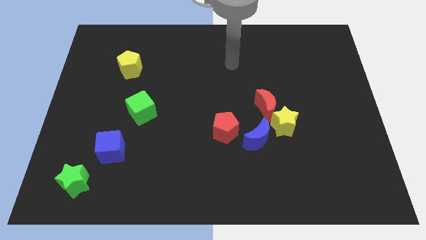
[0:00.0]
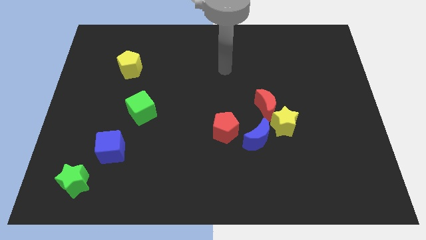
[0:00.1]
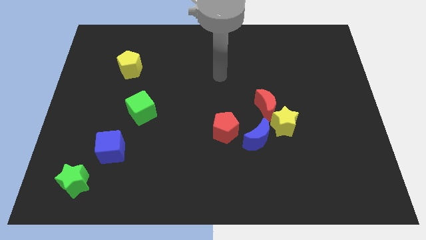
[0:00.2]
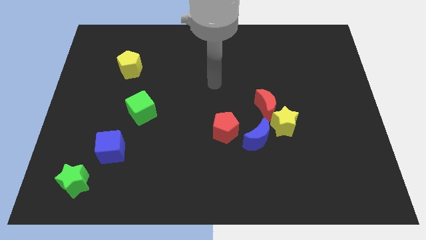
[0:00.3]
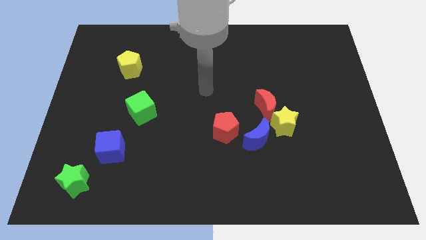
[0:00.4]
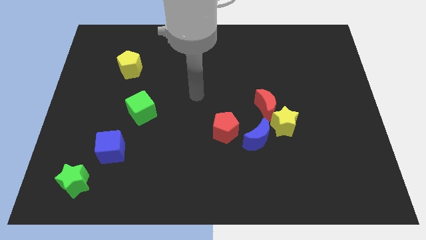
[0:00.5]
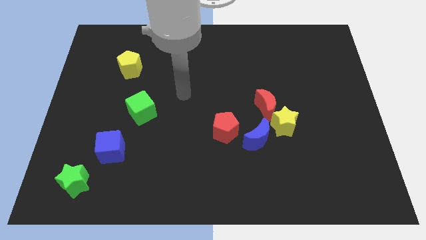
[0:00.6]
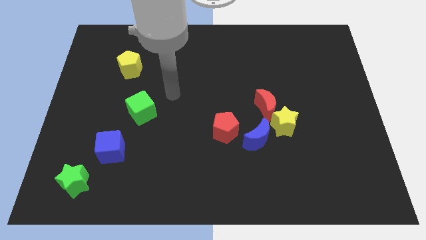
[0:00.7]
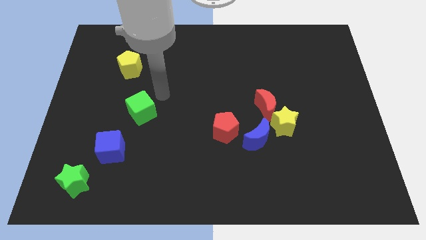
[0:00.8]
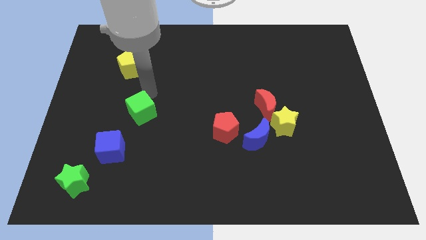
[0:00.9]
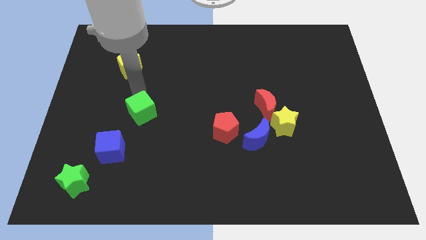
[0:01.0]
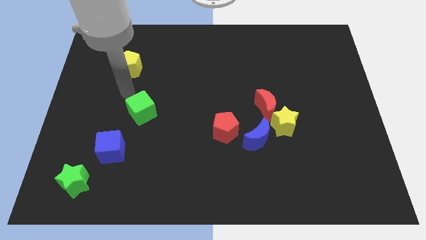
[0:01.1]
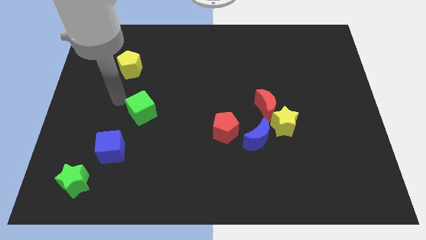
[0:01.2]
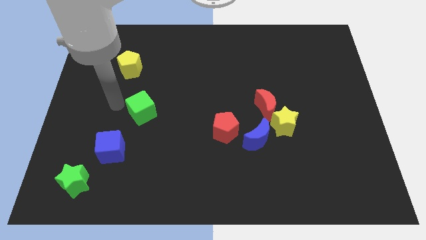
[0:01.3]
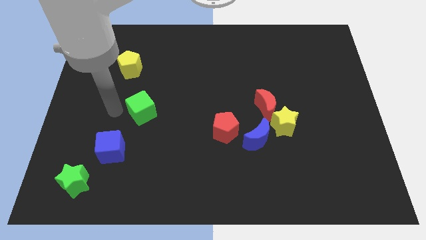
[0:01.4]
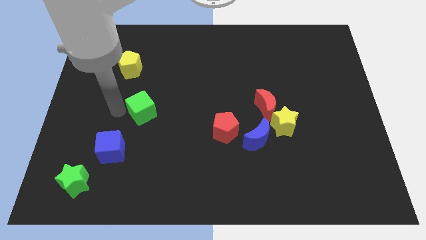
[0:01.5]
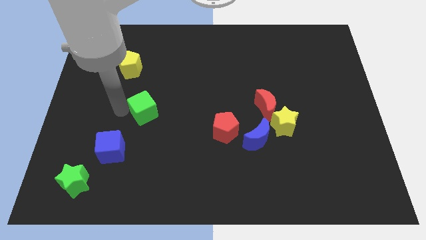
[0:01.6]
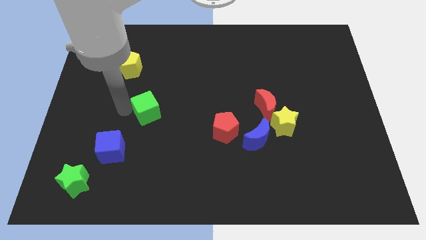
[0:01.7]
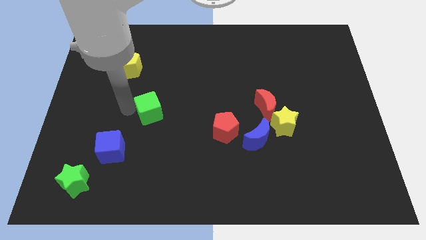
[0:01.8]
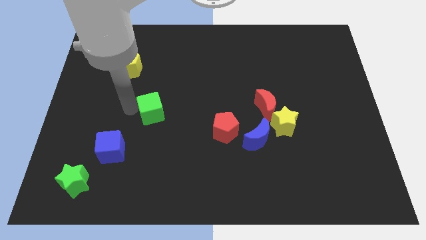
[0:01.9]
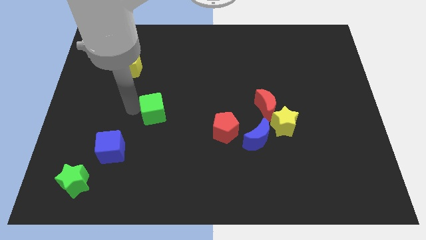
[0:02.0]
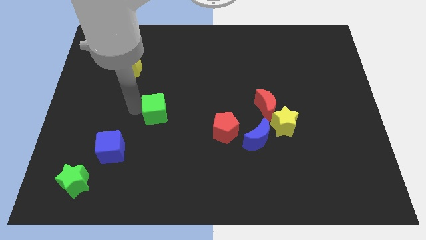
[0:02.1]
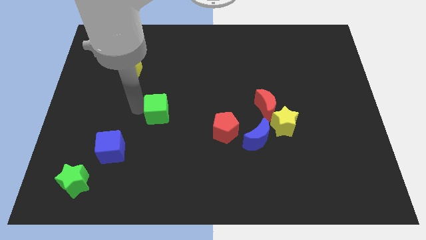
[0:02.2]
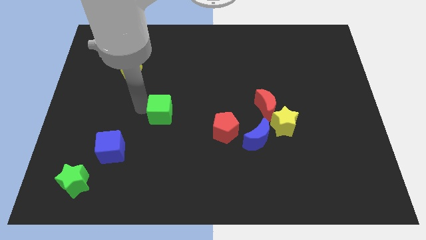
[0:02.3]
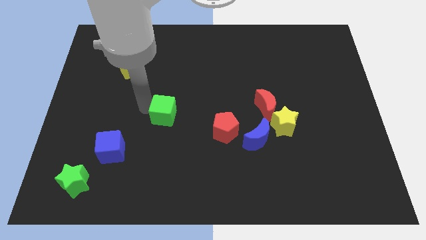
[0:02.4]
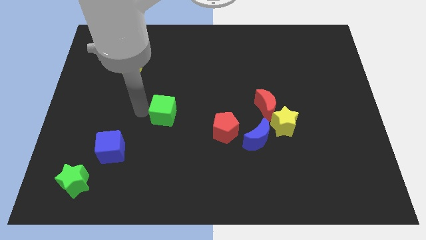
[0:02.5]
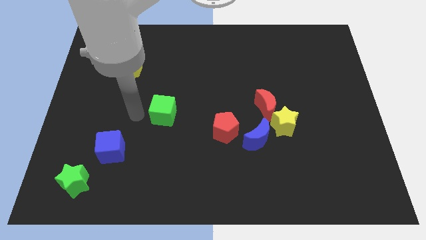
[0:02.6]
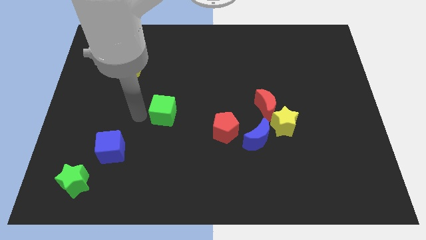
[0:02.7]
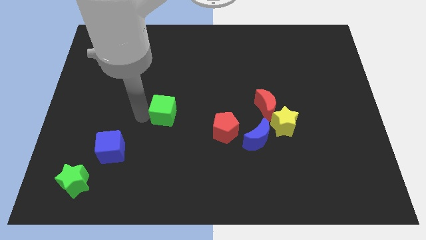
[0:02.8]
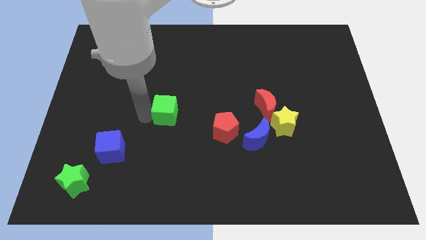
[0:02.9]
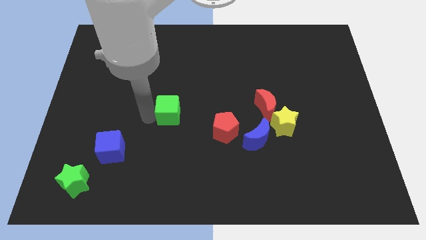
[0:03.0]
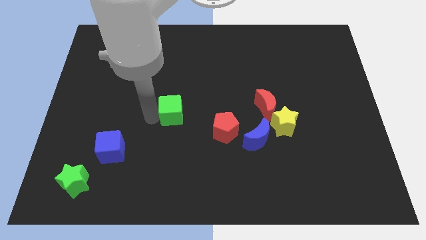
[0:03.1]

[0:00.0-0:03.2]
slightly move the green cube right

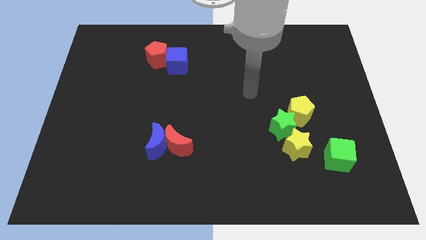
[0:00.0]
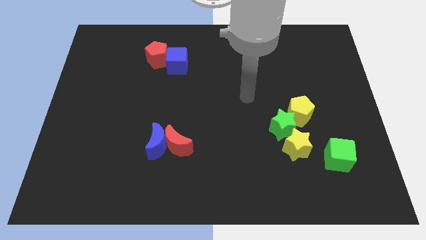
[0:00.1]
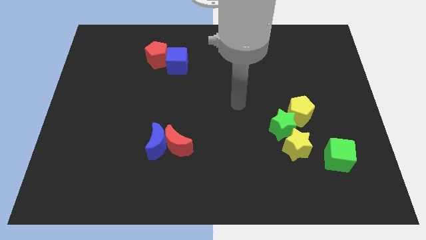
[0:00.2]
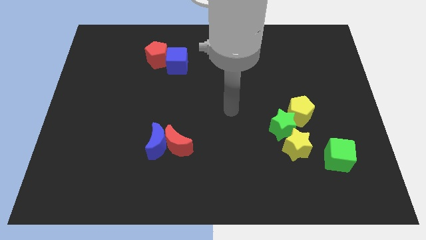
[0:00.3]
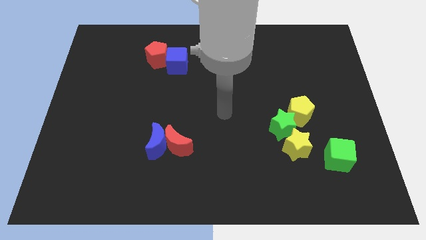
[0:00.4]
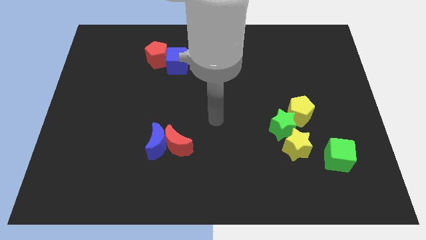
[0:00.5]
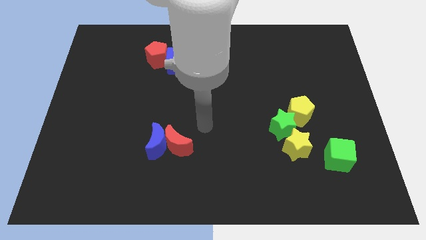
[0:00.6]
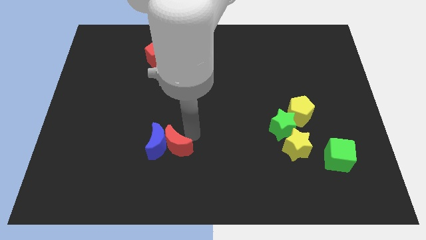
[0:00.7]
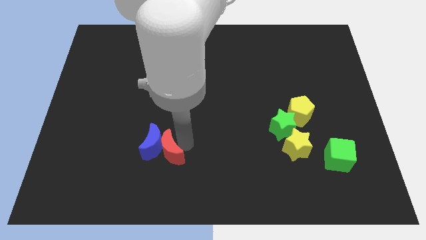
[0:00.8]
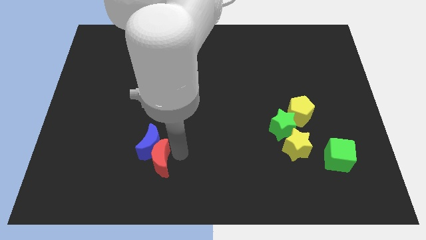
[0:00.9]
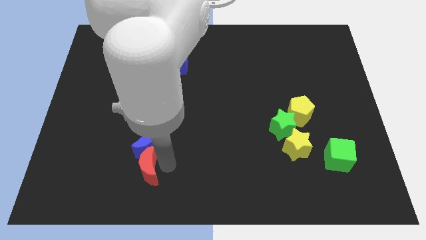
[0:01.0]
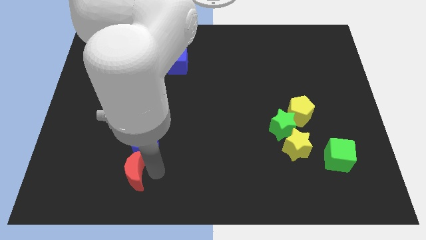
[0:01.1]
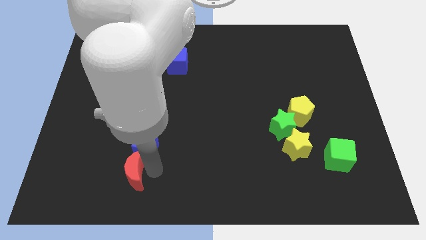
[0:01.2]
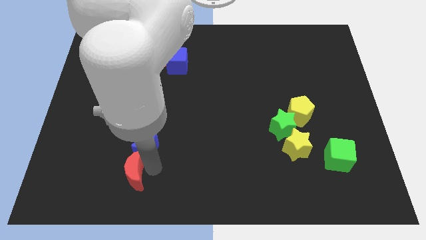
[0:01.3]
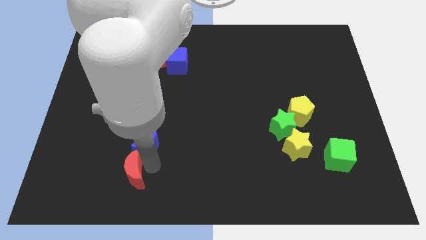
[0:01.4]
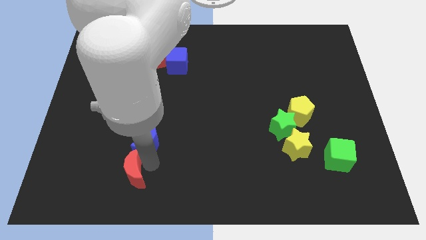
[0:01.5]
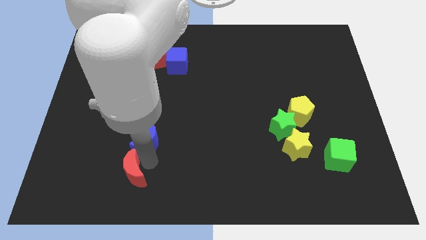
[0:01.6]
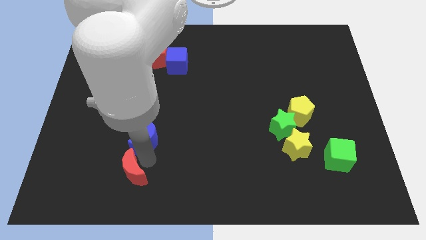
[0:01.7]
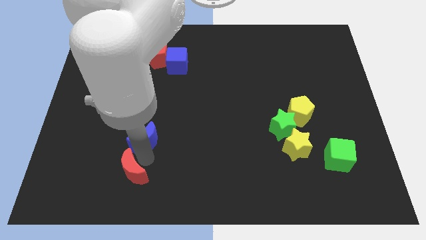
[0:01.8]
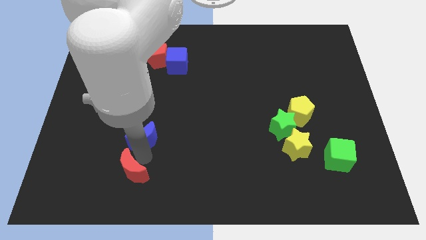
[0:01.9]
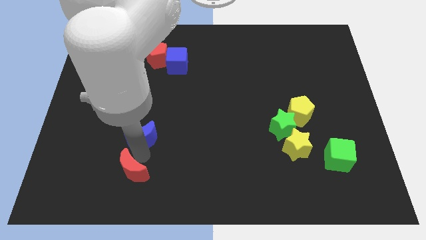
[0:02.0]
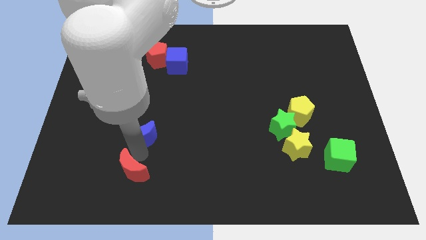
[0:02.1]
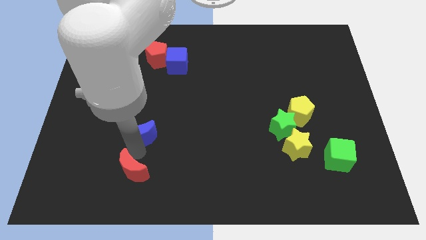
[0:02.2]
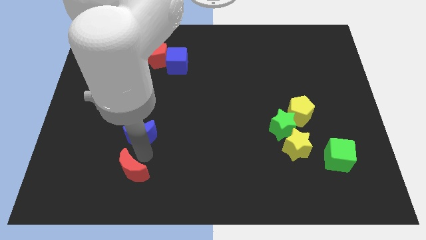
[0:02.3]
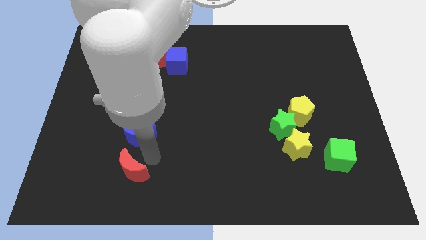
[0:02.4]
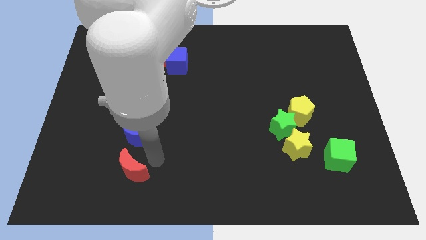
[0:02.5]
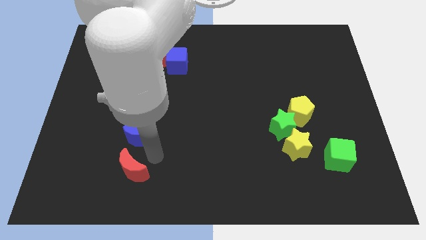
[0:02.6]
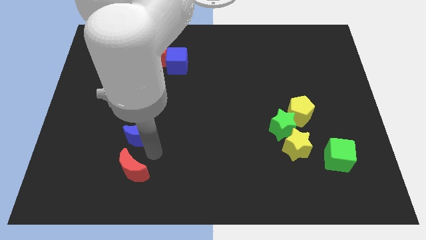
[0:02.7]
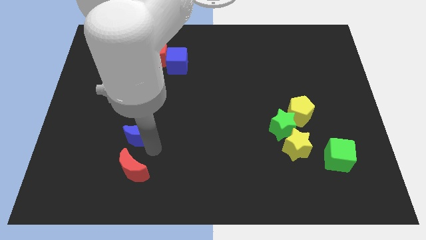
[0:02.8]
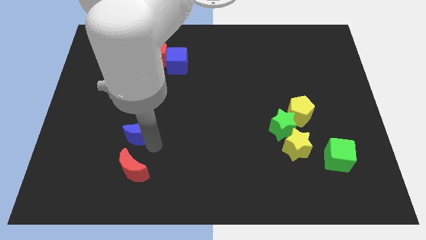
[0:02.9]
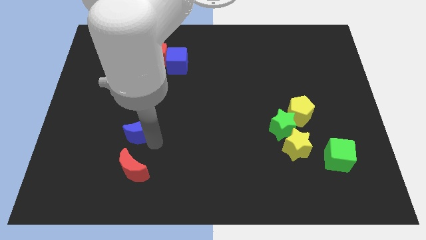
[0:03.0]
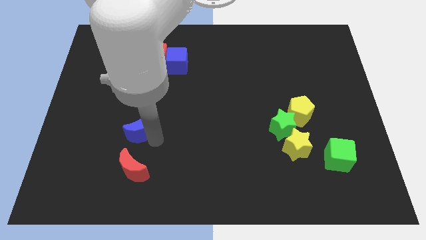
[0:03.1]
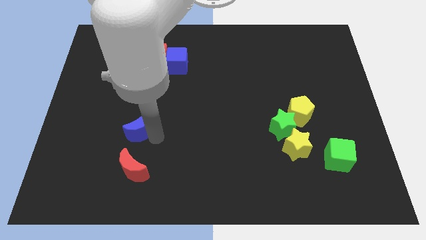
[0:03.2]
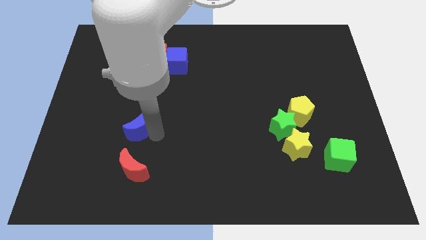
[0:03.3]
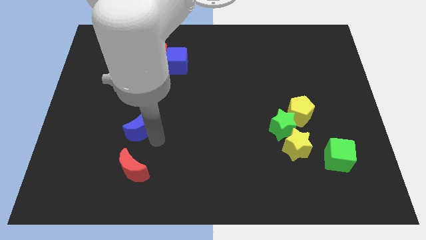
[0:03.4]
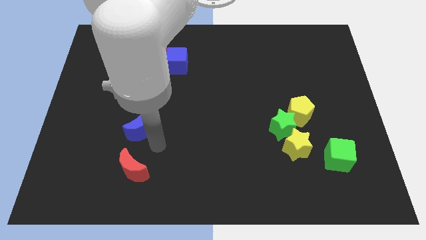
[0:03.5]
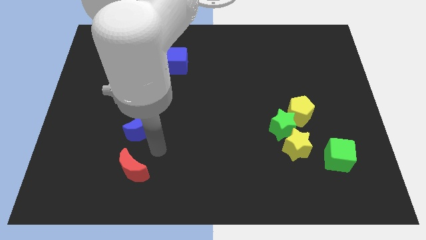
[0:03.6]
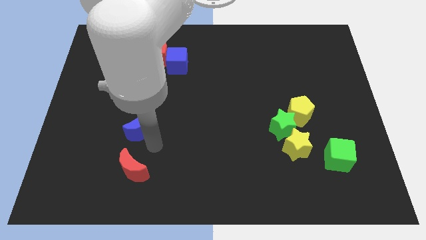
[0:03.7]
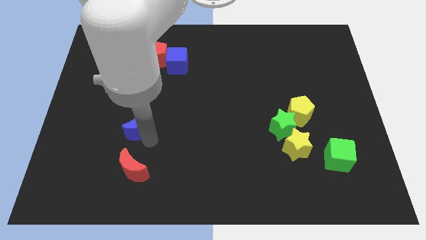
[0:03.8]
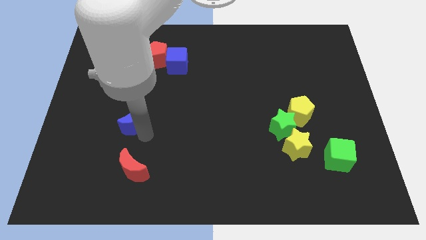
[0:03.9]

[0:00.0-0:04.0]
move the blue moon up and left a bit

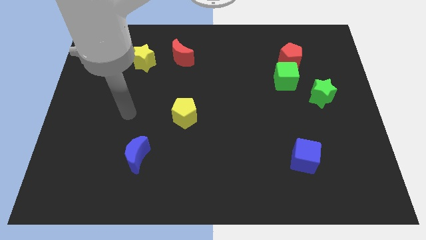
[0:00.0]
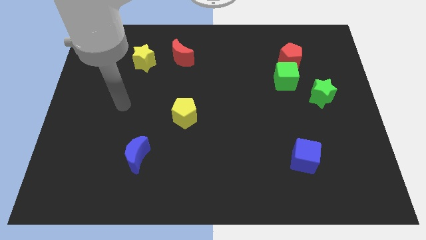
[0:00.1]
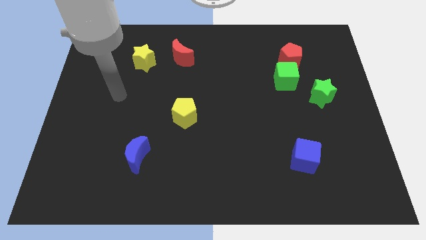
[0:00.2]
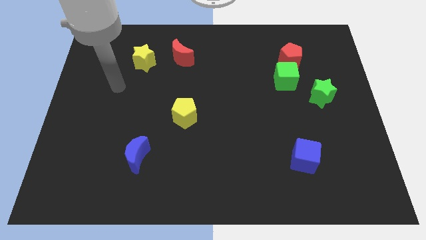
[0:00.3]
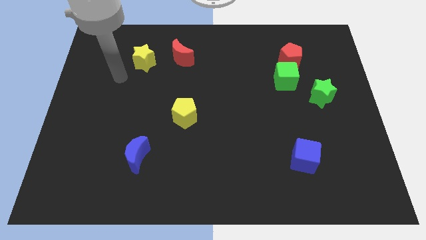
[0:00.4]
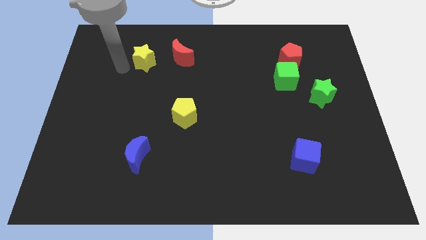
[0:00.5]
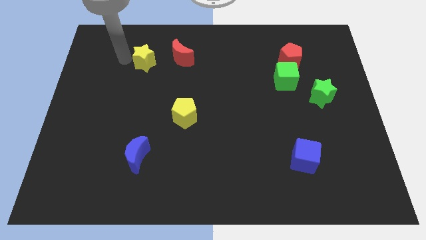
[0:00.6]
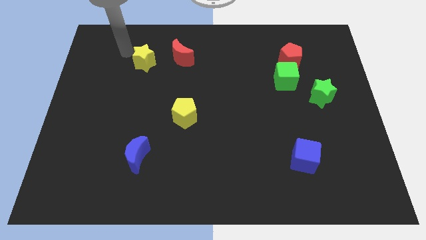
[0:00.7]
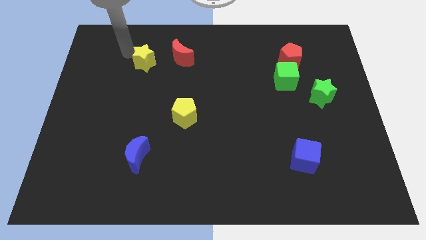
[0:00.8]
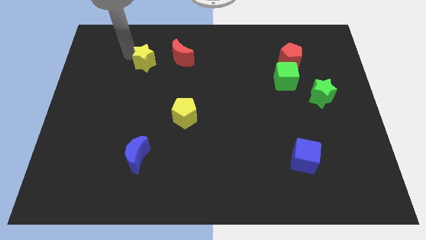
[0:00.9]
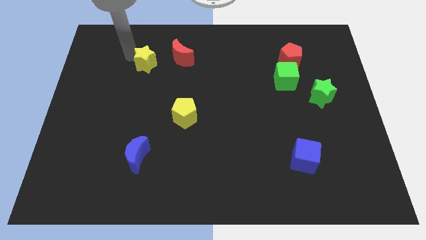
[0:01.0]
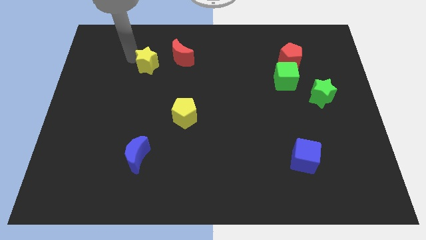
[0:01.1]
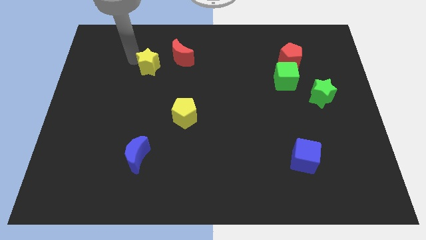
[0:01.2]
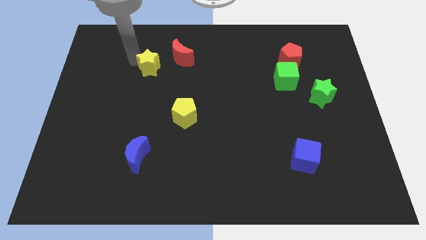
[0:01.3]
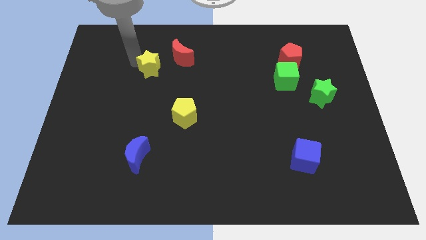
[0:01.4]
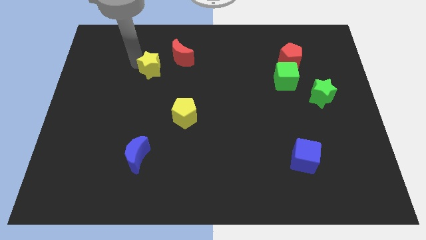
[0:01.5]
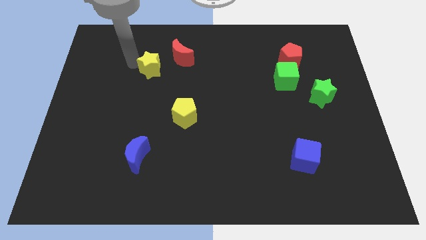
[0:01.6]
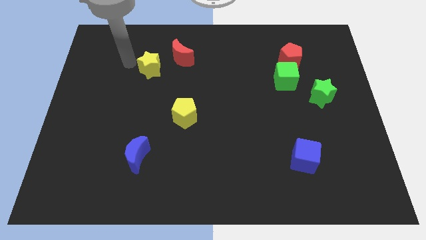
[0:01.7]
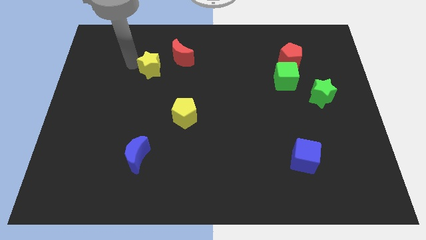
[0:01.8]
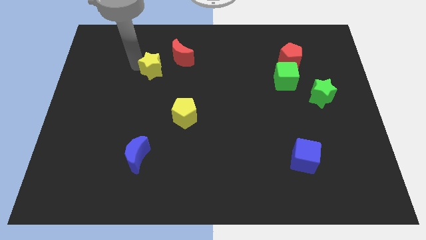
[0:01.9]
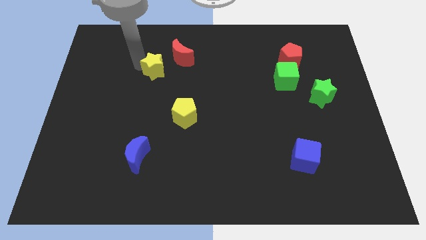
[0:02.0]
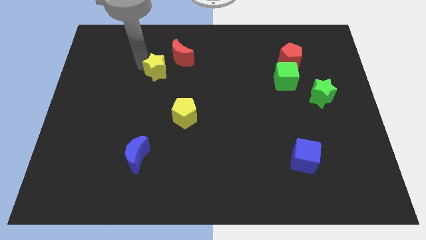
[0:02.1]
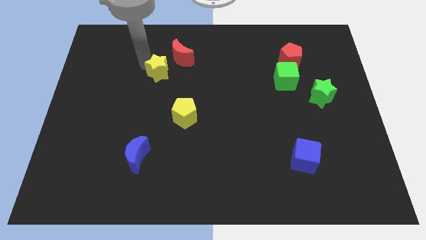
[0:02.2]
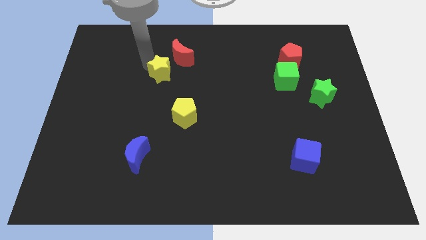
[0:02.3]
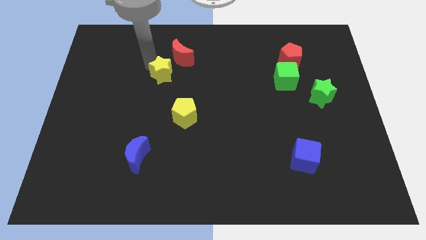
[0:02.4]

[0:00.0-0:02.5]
slightly move the yellow star downwards and right diagonally
